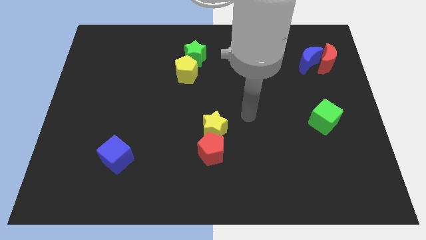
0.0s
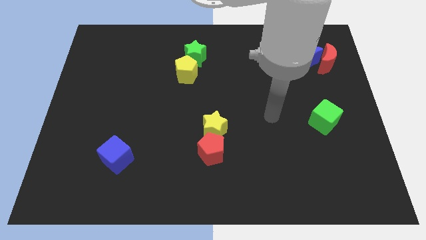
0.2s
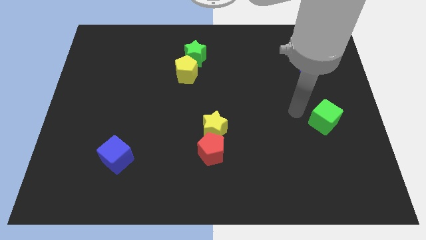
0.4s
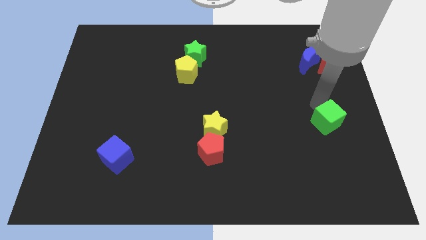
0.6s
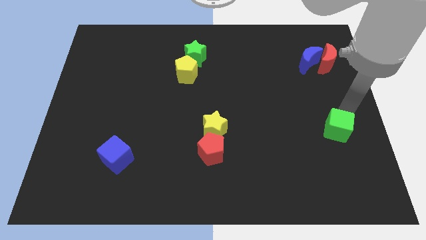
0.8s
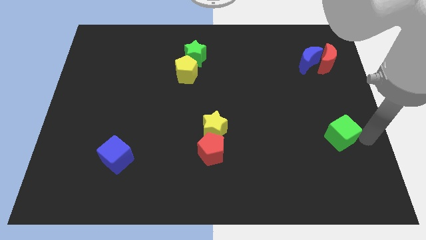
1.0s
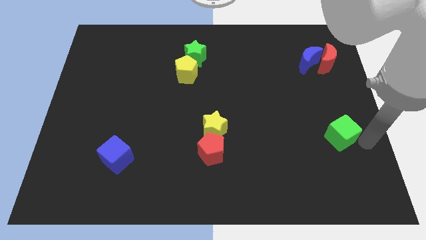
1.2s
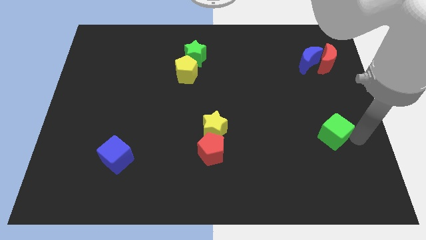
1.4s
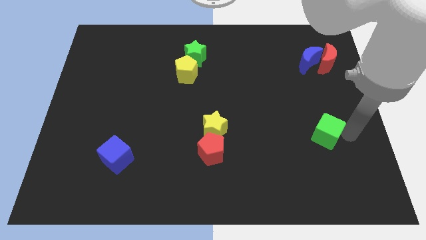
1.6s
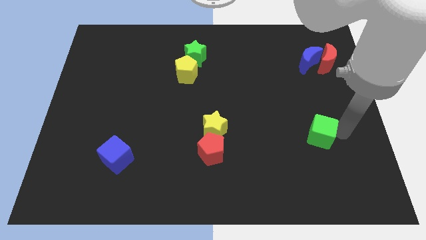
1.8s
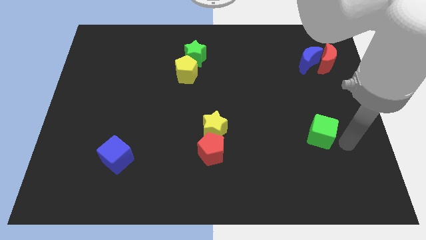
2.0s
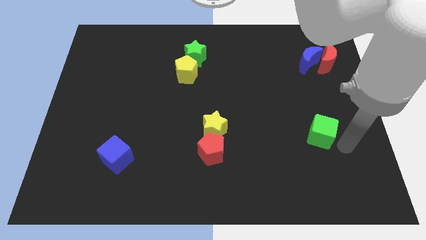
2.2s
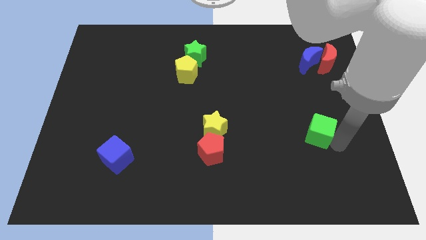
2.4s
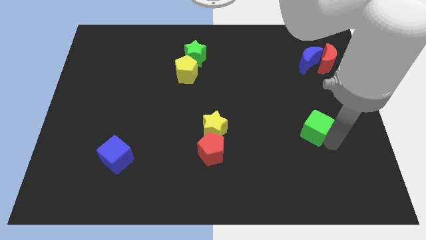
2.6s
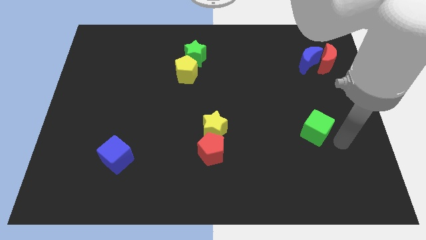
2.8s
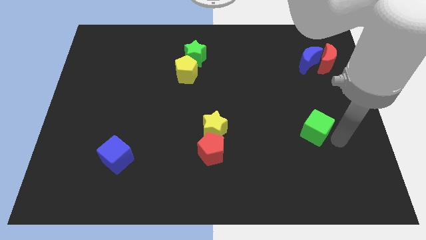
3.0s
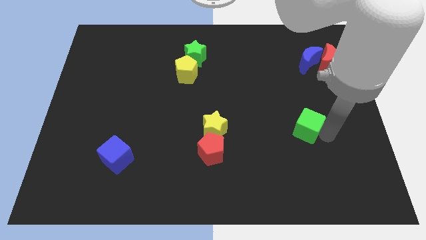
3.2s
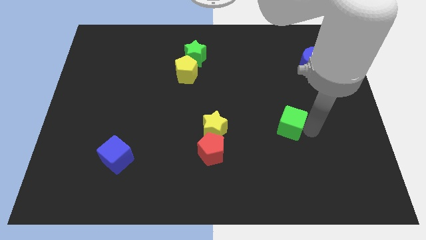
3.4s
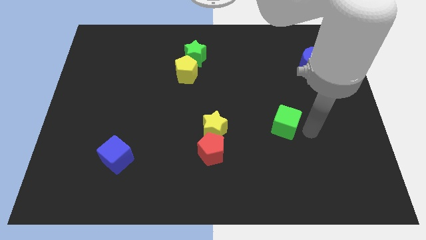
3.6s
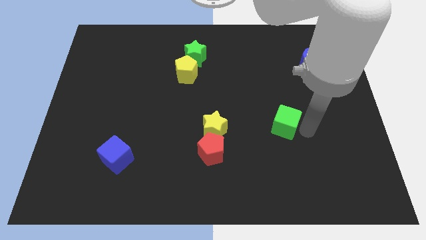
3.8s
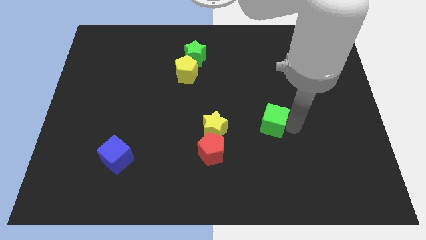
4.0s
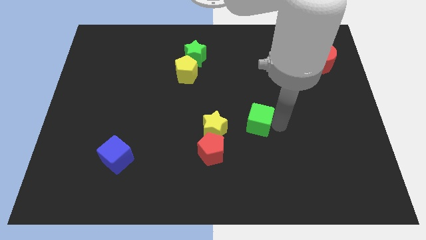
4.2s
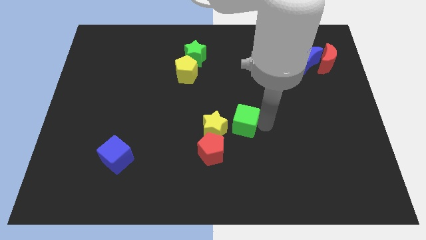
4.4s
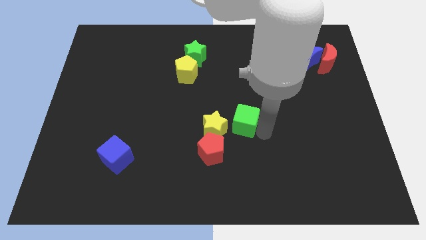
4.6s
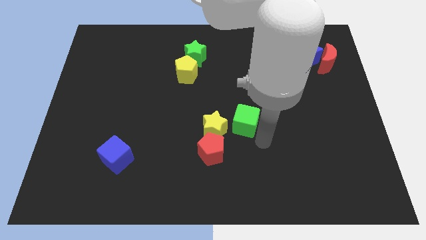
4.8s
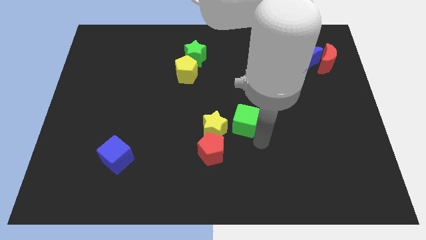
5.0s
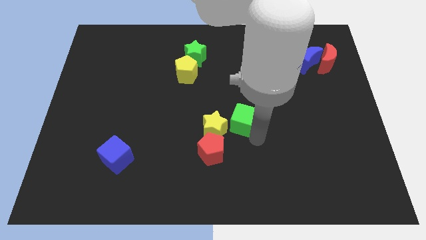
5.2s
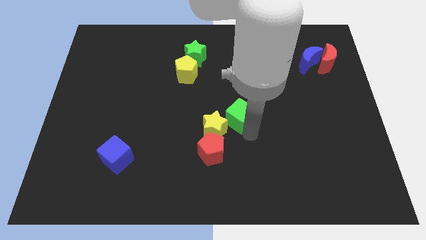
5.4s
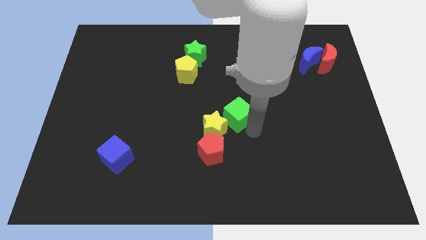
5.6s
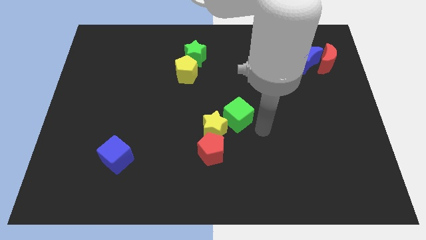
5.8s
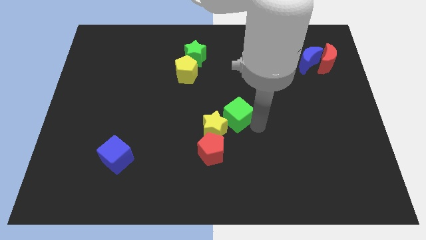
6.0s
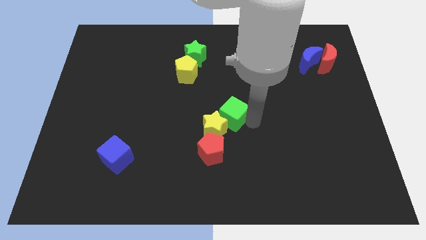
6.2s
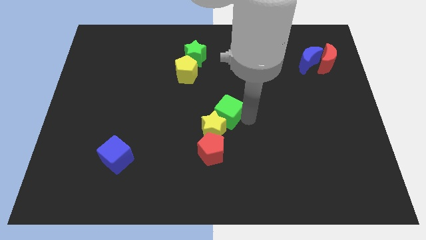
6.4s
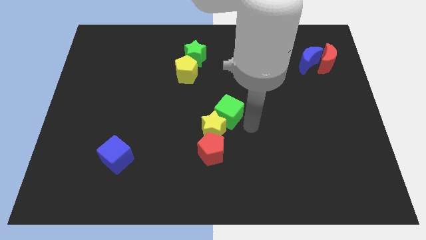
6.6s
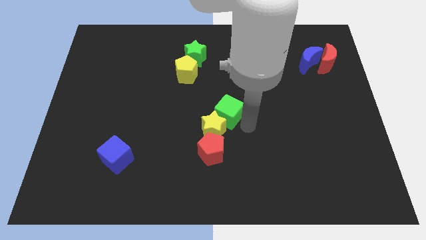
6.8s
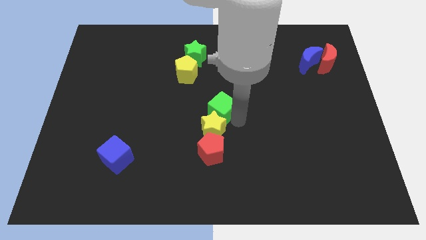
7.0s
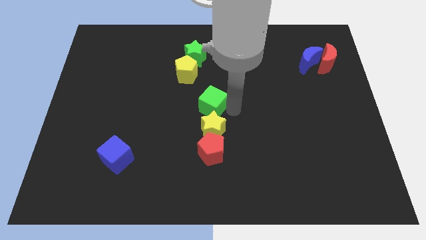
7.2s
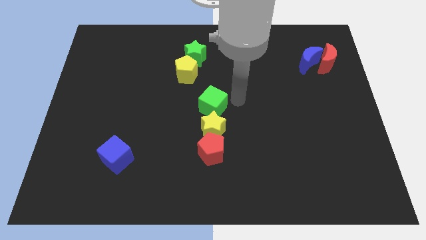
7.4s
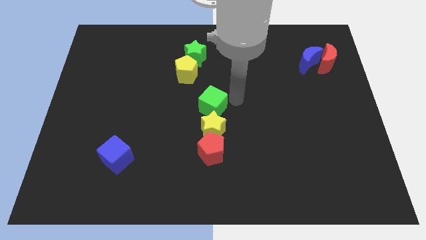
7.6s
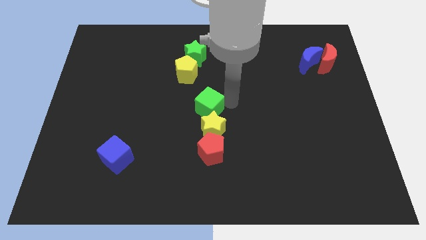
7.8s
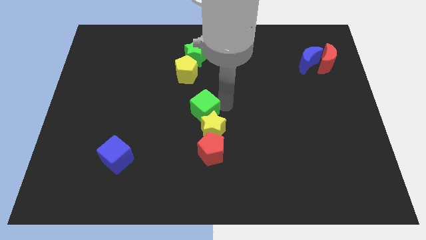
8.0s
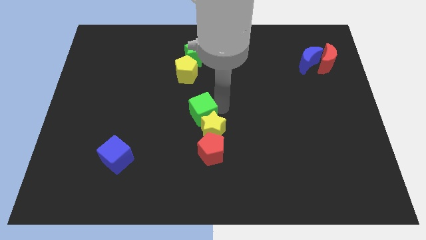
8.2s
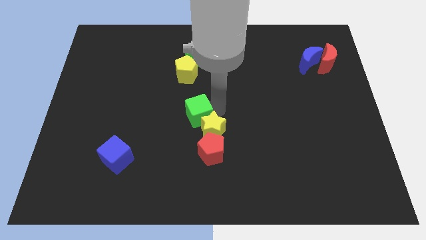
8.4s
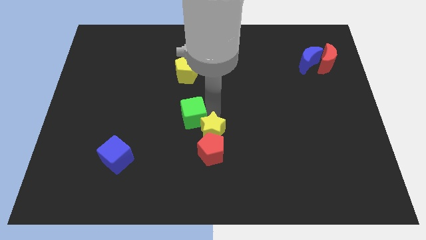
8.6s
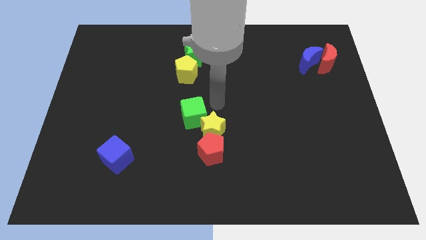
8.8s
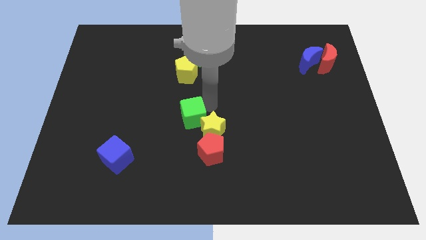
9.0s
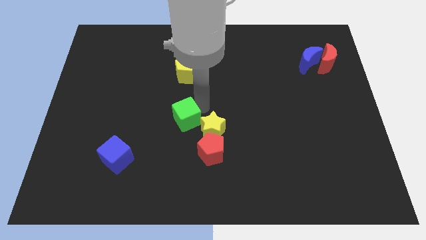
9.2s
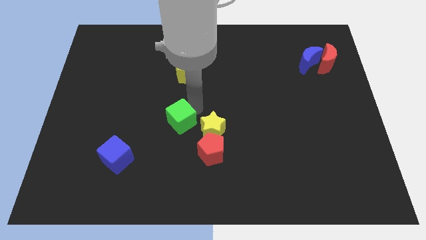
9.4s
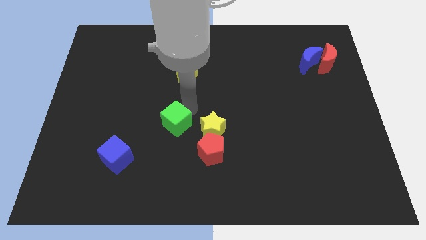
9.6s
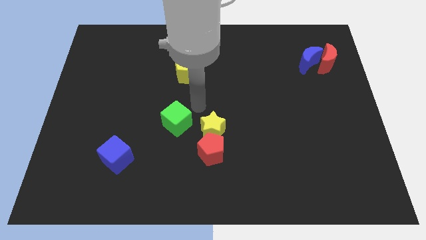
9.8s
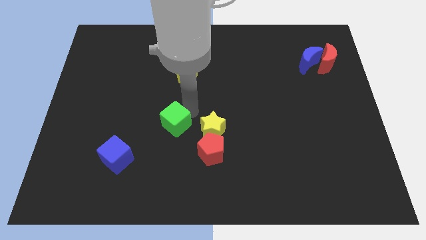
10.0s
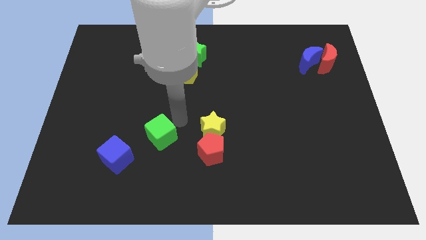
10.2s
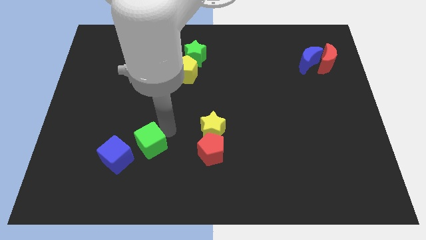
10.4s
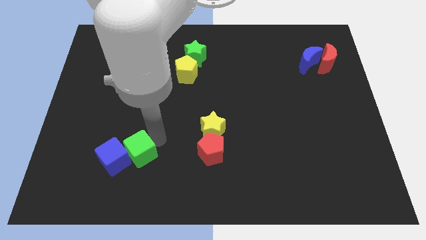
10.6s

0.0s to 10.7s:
push the green cube to the blue cube

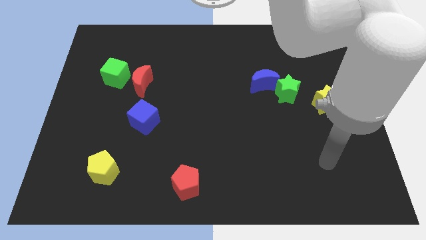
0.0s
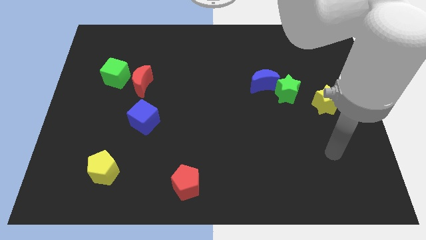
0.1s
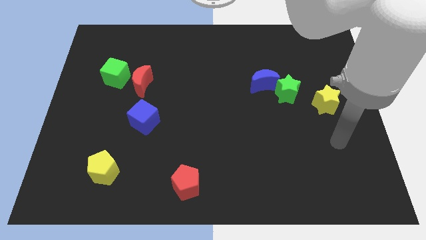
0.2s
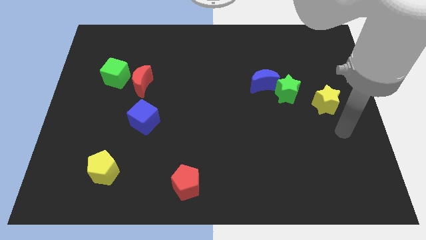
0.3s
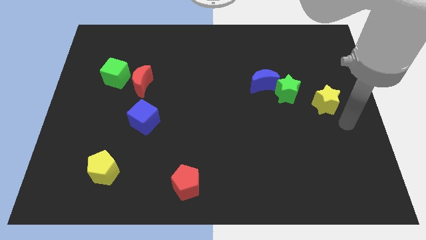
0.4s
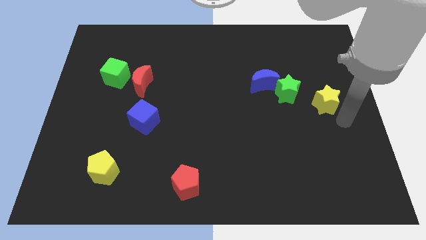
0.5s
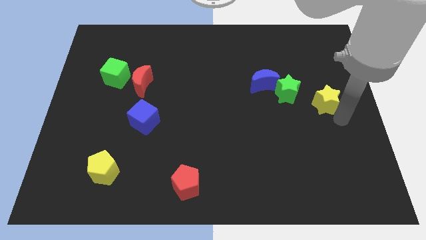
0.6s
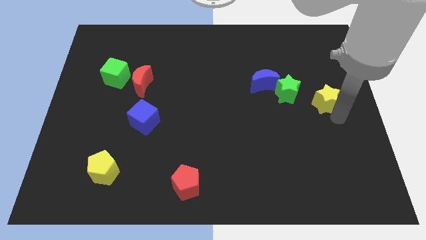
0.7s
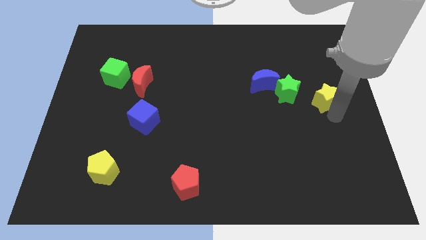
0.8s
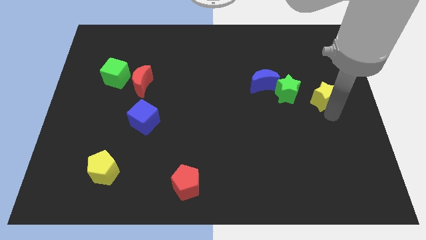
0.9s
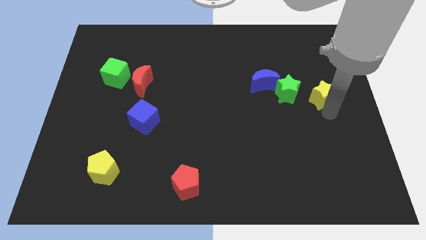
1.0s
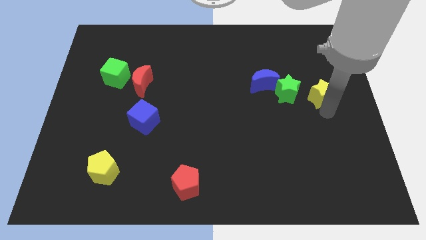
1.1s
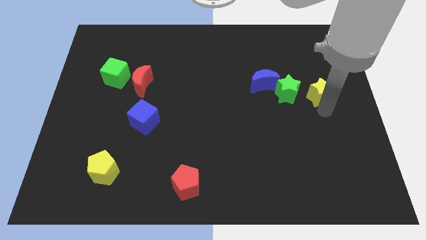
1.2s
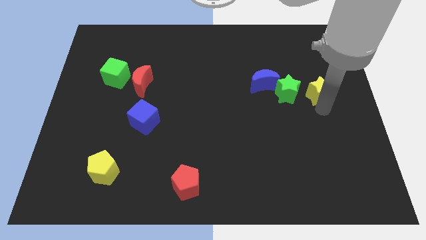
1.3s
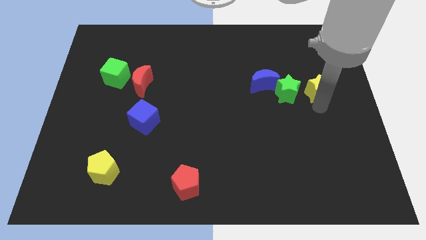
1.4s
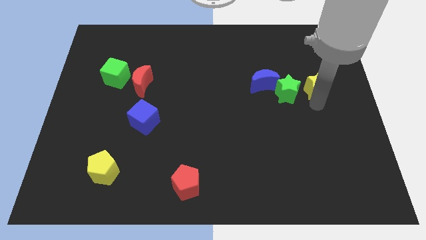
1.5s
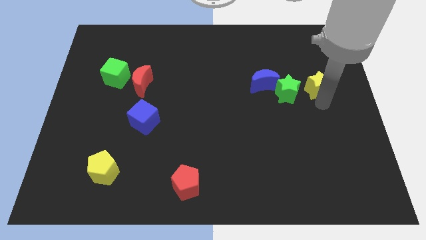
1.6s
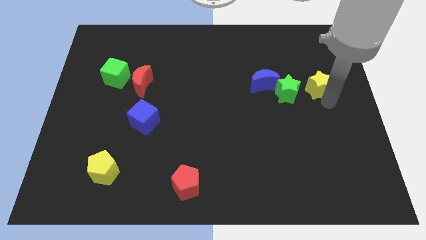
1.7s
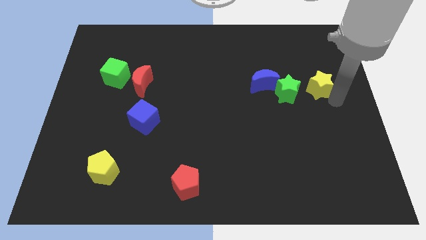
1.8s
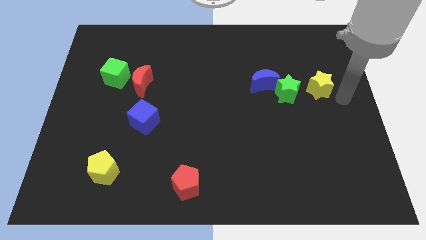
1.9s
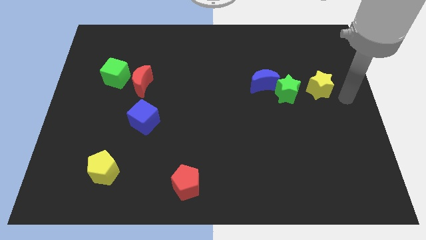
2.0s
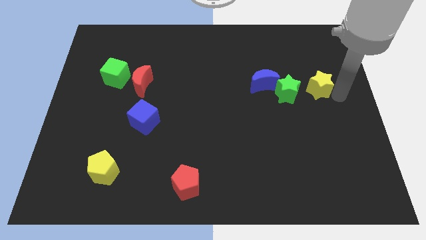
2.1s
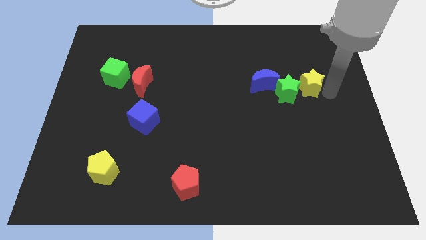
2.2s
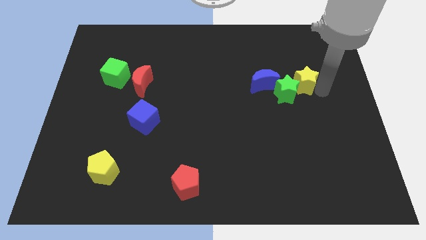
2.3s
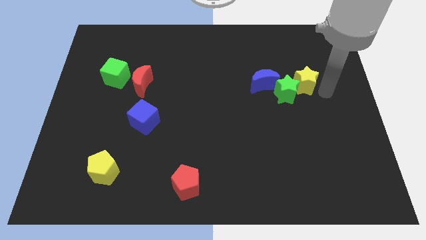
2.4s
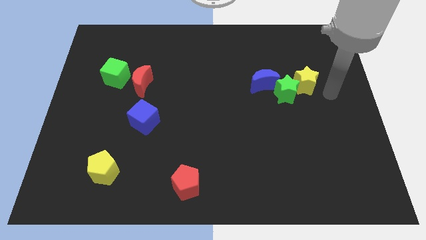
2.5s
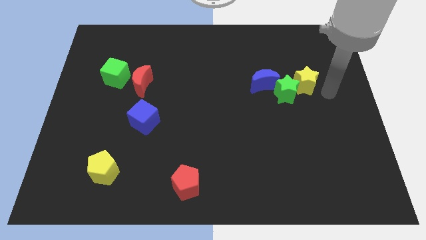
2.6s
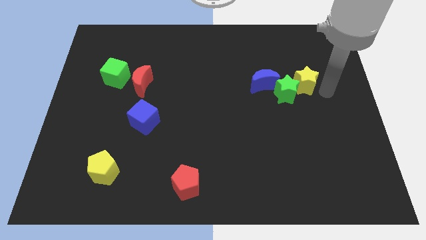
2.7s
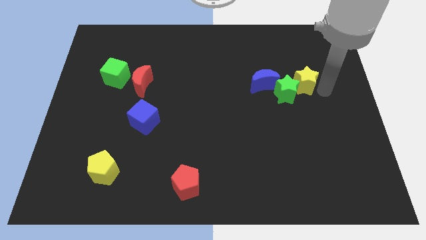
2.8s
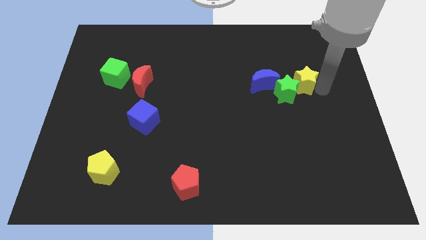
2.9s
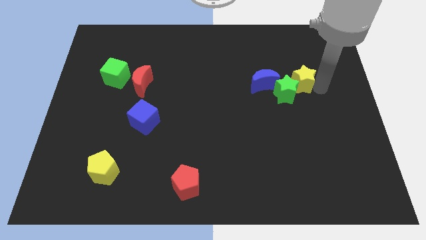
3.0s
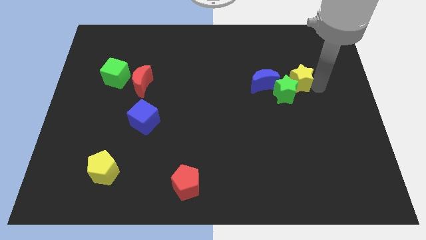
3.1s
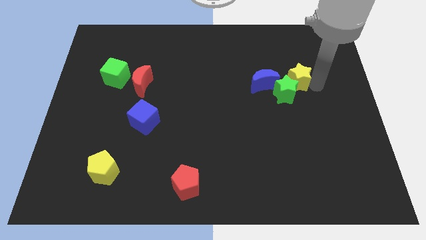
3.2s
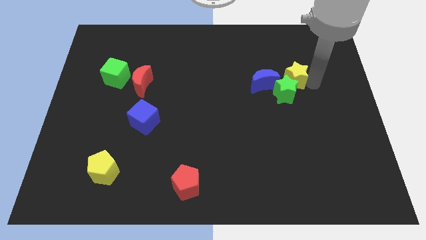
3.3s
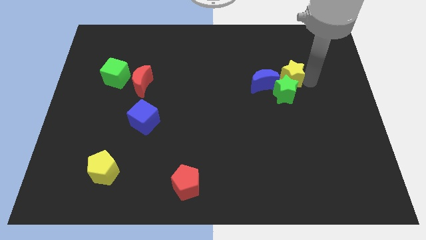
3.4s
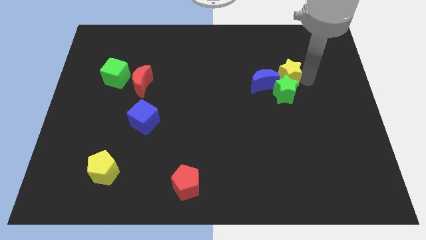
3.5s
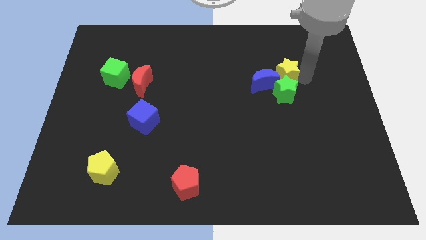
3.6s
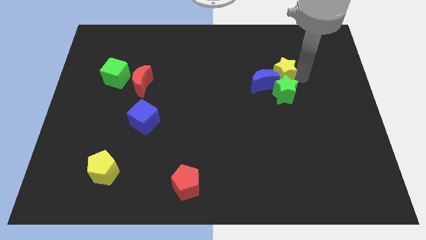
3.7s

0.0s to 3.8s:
move the yellow star towards the blue moon
